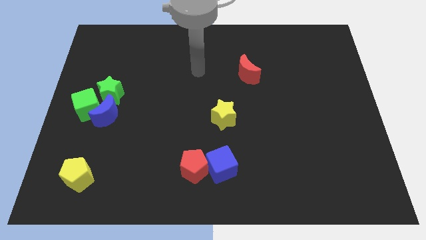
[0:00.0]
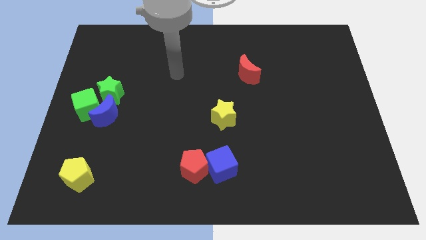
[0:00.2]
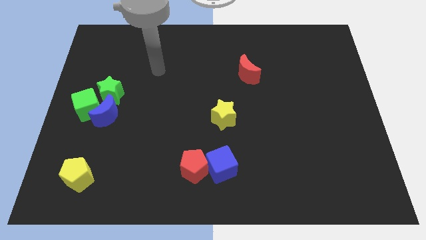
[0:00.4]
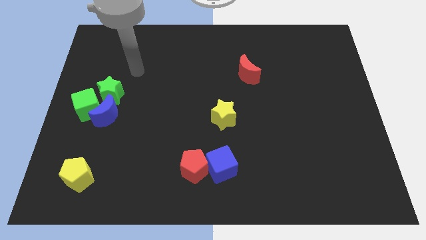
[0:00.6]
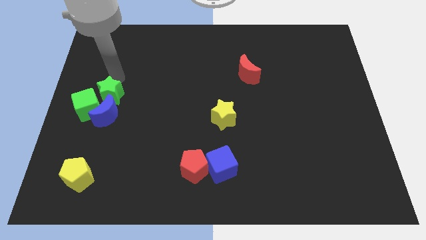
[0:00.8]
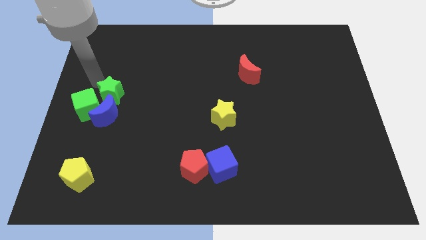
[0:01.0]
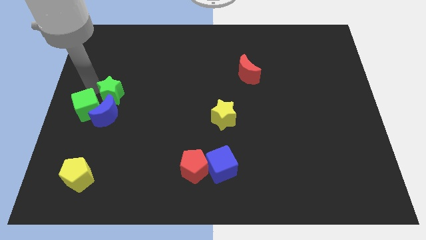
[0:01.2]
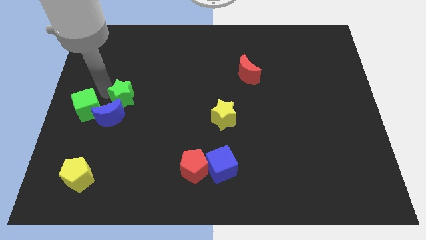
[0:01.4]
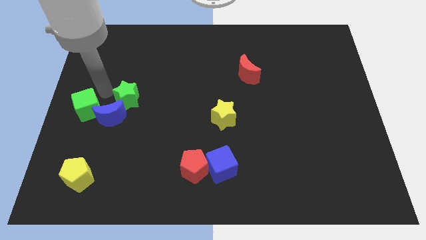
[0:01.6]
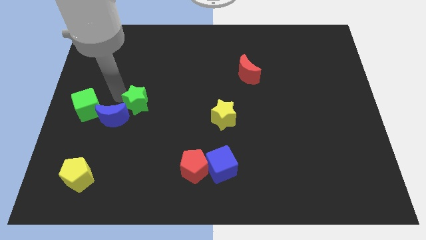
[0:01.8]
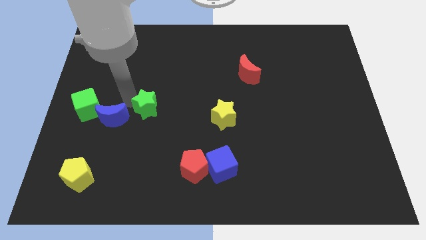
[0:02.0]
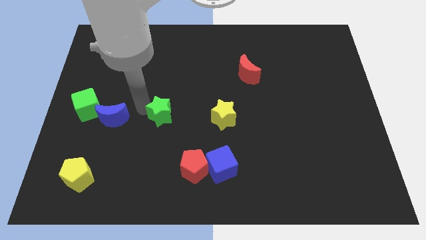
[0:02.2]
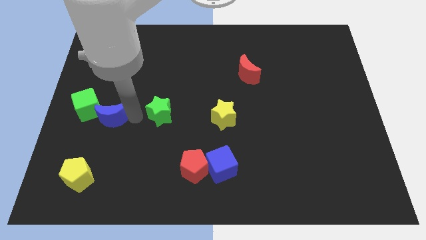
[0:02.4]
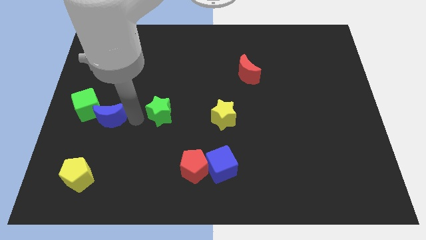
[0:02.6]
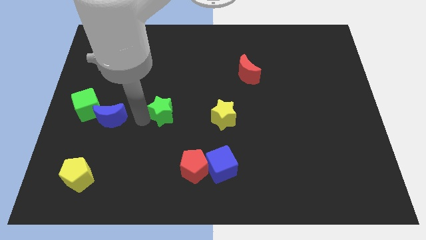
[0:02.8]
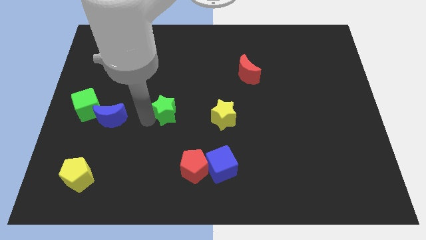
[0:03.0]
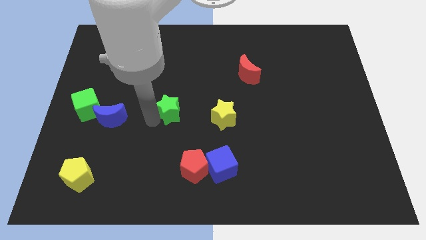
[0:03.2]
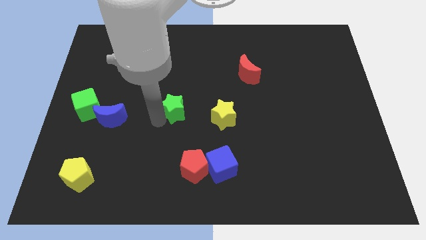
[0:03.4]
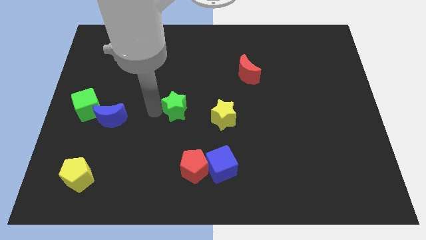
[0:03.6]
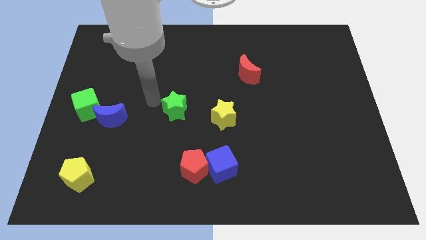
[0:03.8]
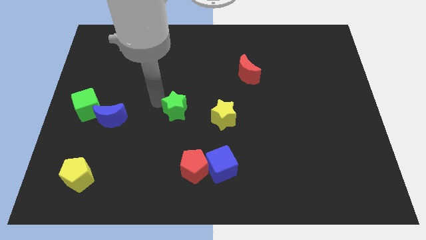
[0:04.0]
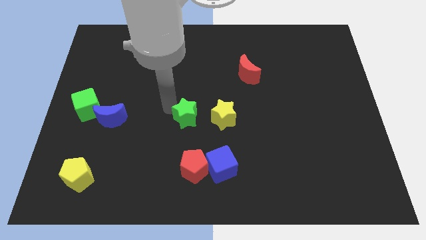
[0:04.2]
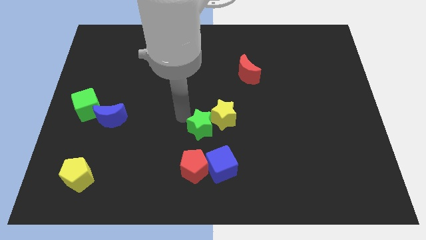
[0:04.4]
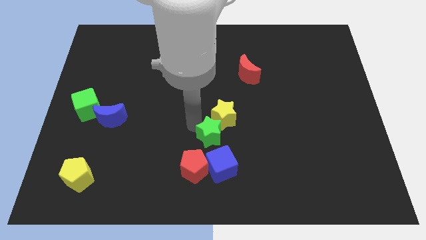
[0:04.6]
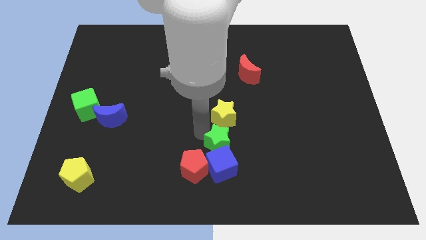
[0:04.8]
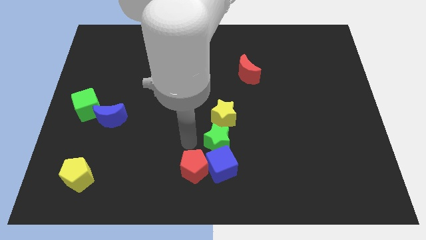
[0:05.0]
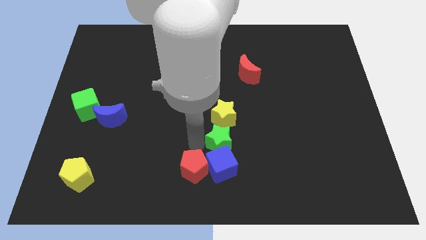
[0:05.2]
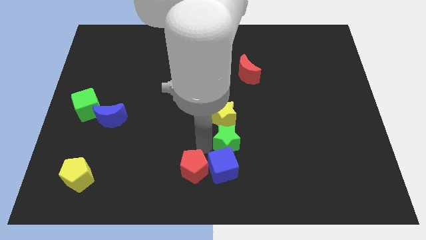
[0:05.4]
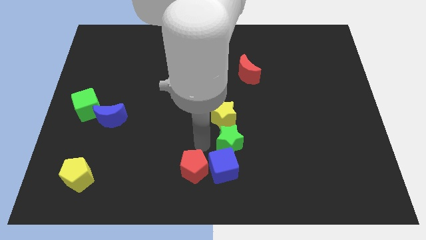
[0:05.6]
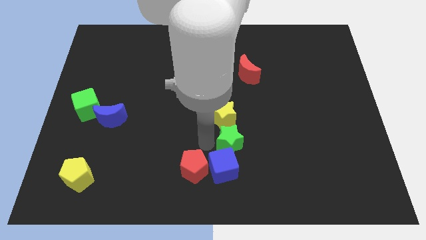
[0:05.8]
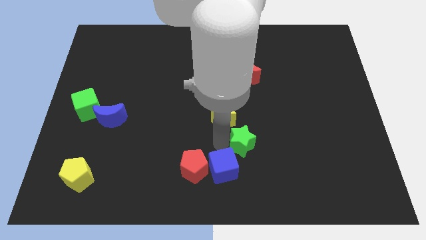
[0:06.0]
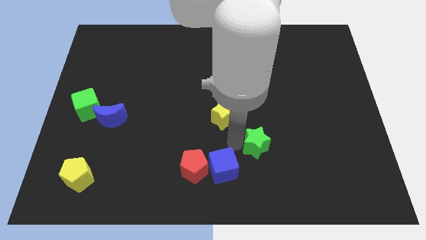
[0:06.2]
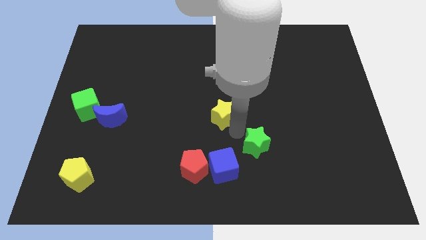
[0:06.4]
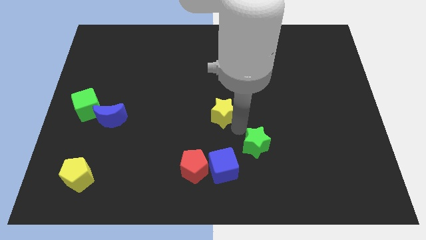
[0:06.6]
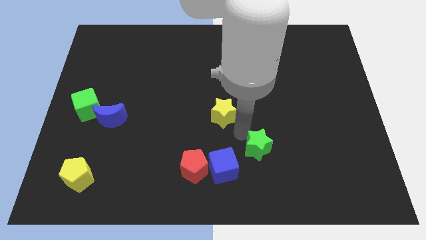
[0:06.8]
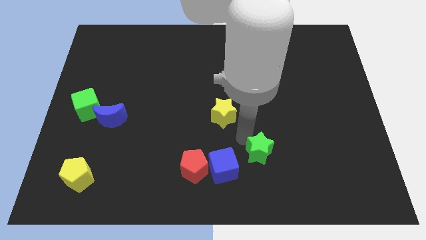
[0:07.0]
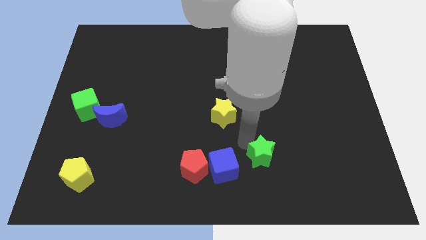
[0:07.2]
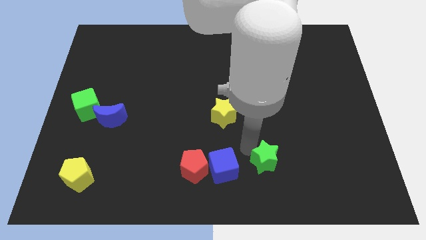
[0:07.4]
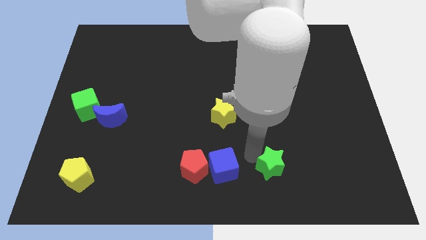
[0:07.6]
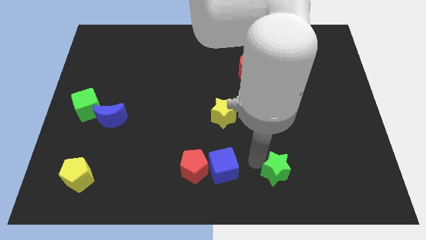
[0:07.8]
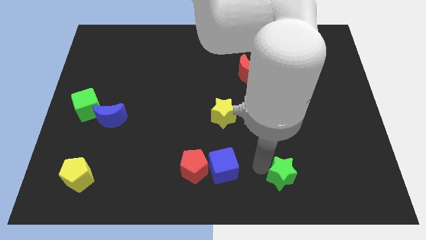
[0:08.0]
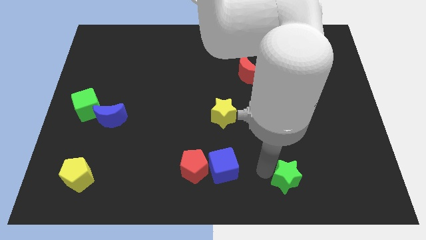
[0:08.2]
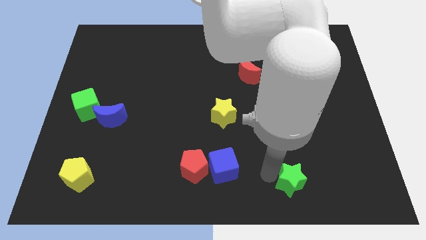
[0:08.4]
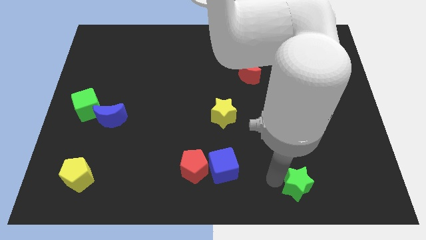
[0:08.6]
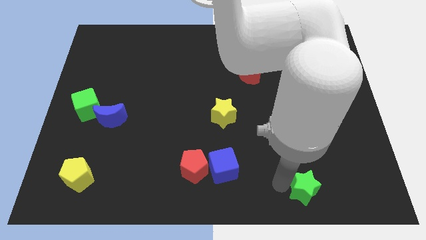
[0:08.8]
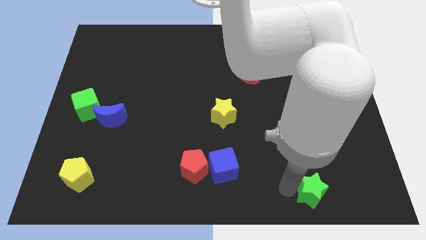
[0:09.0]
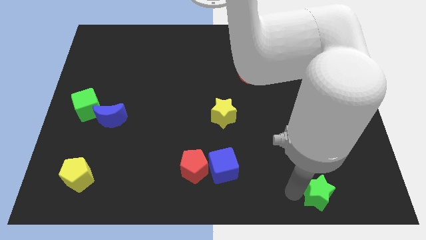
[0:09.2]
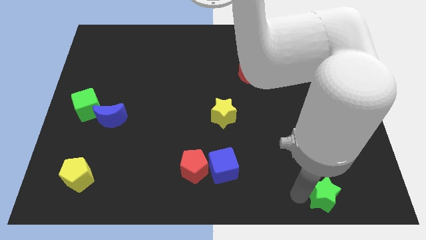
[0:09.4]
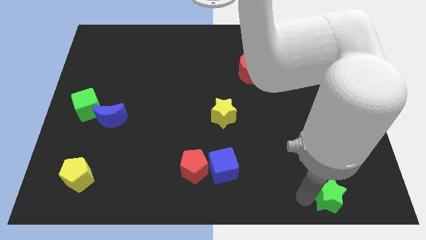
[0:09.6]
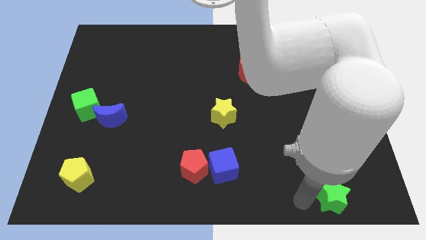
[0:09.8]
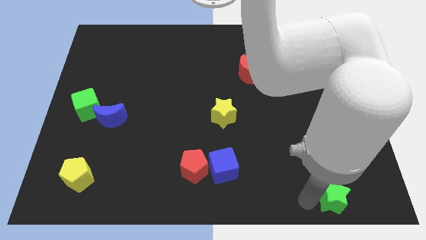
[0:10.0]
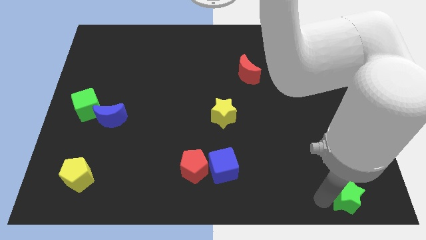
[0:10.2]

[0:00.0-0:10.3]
slide the green star to the bottom right

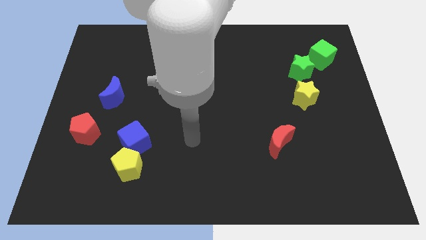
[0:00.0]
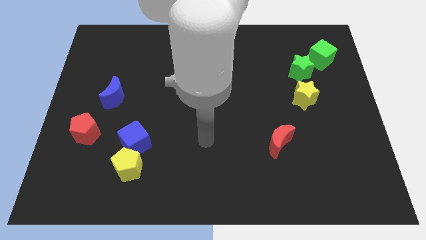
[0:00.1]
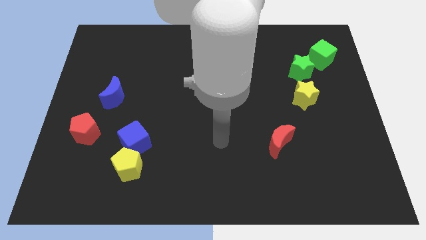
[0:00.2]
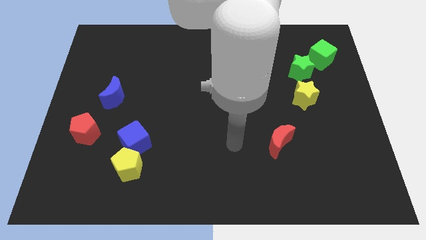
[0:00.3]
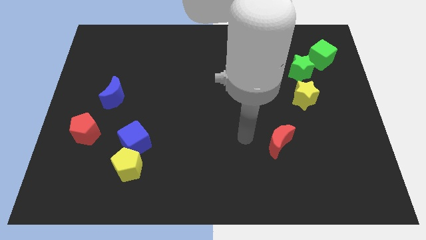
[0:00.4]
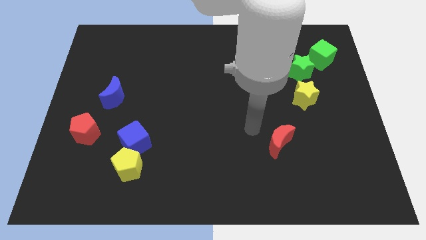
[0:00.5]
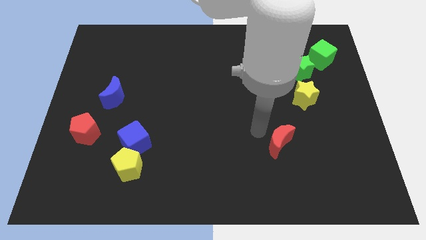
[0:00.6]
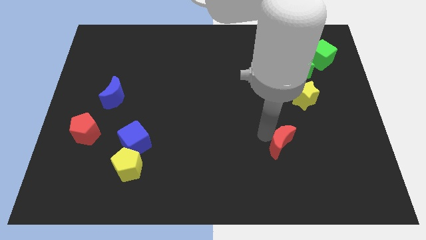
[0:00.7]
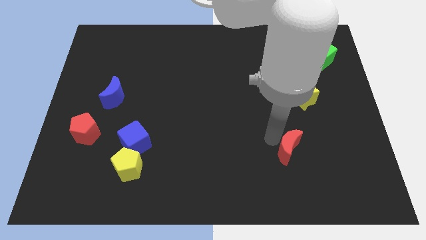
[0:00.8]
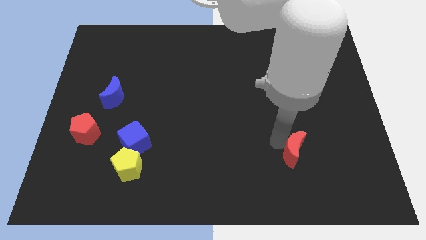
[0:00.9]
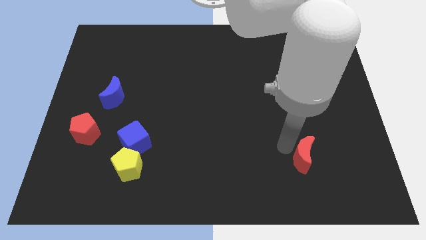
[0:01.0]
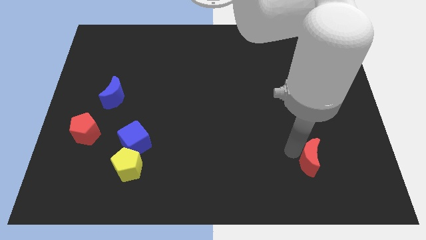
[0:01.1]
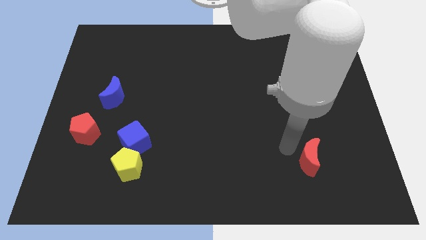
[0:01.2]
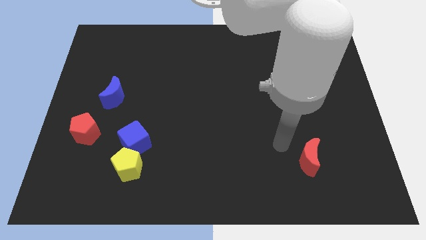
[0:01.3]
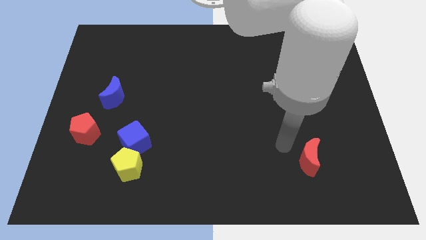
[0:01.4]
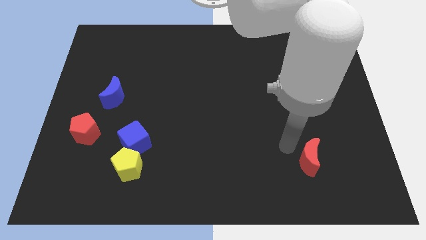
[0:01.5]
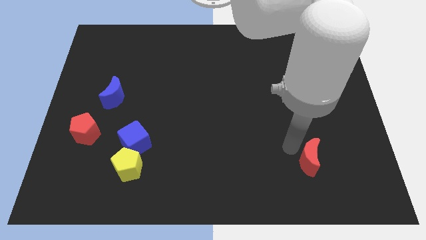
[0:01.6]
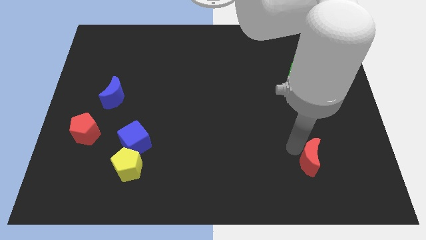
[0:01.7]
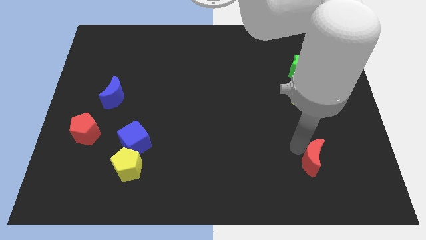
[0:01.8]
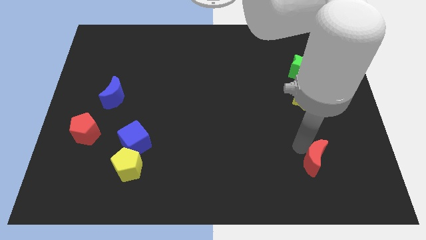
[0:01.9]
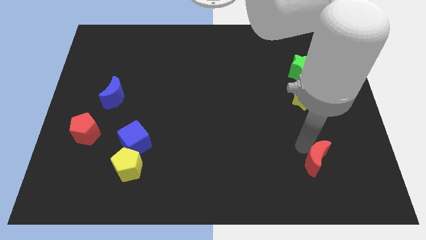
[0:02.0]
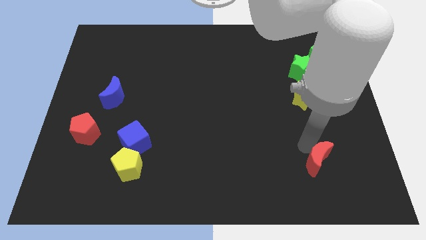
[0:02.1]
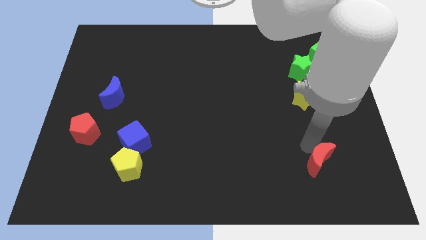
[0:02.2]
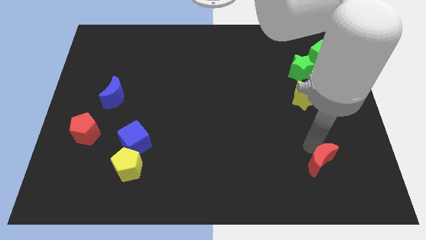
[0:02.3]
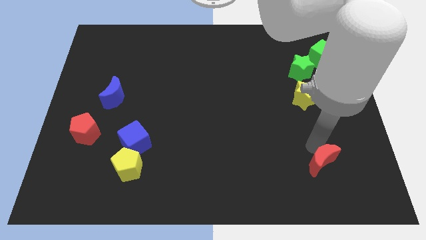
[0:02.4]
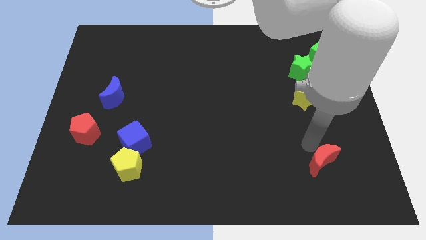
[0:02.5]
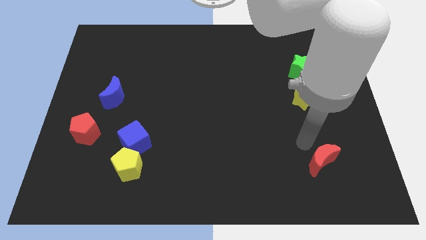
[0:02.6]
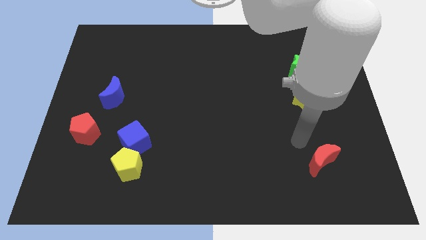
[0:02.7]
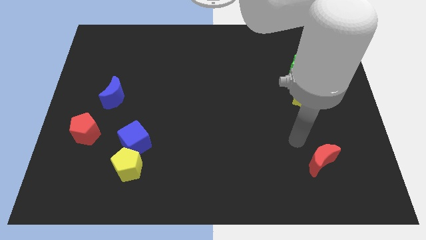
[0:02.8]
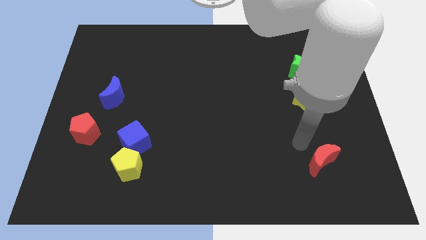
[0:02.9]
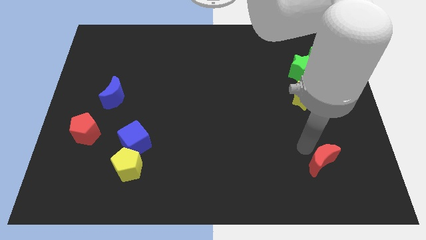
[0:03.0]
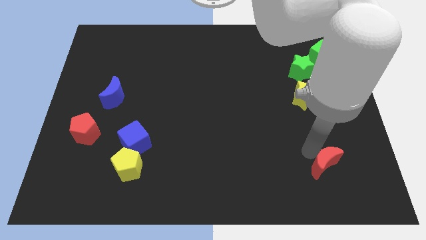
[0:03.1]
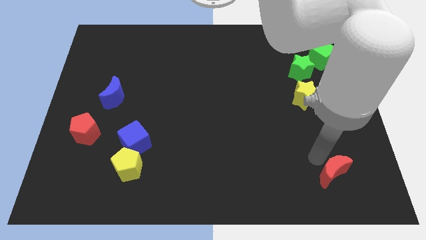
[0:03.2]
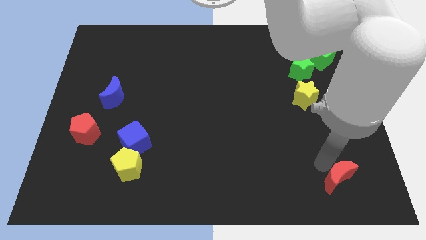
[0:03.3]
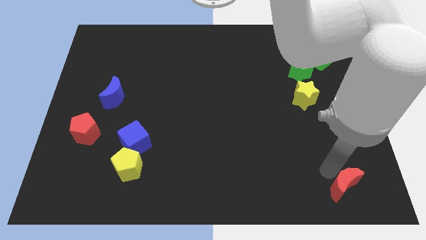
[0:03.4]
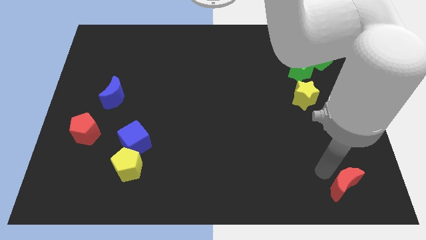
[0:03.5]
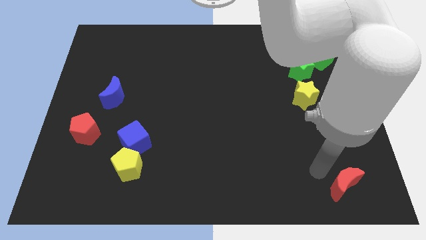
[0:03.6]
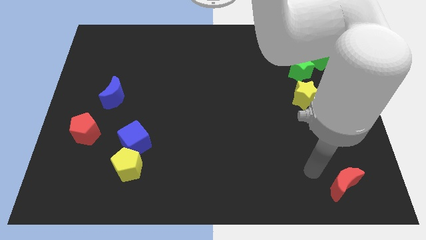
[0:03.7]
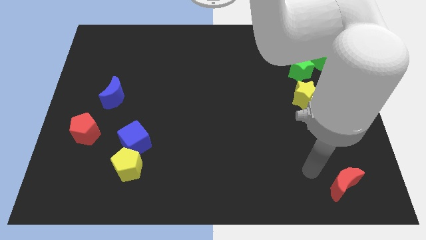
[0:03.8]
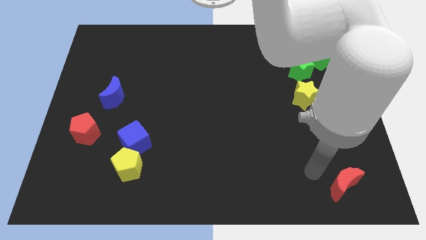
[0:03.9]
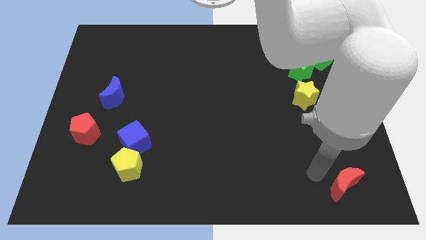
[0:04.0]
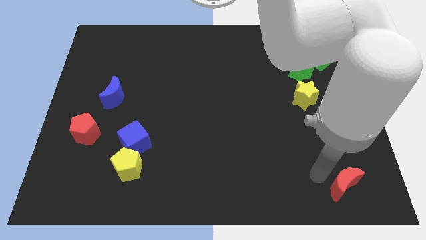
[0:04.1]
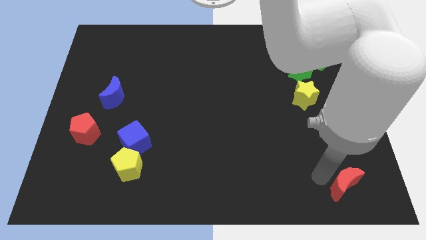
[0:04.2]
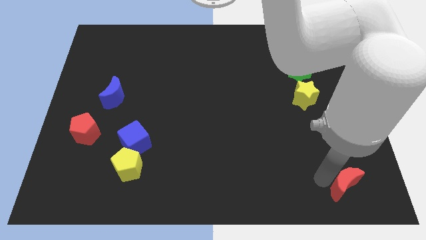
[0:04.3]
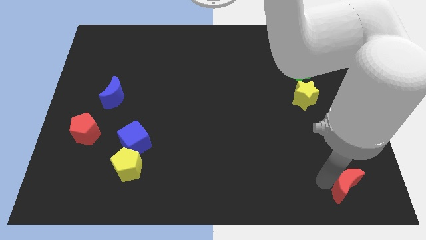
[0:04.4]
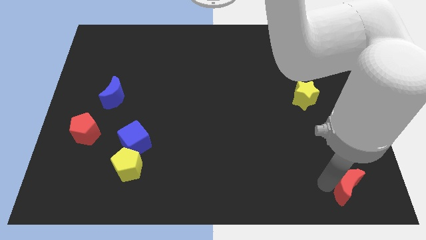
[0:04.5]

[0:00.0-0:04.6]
put the red moon to the lower right corner
